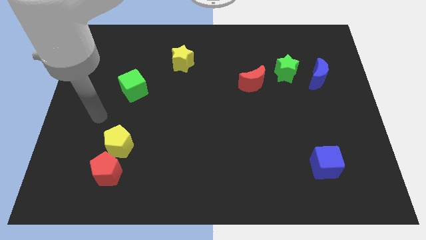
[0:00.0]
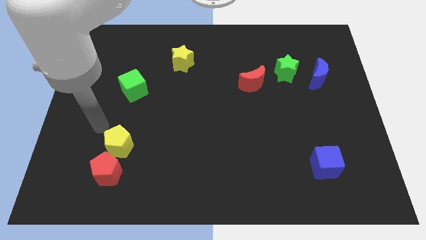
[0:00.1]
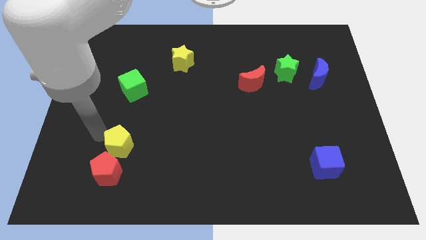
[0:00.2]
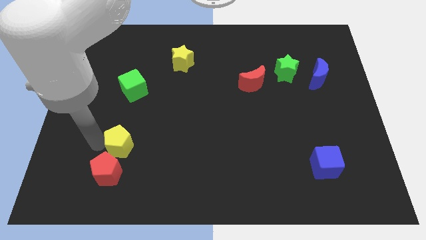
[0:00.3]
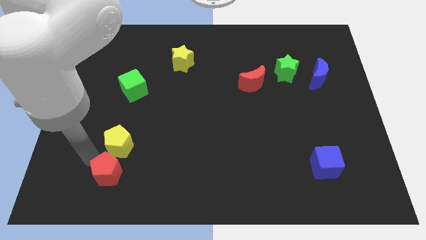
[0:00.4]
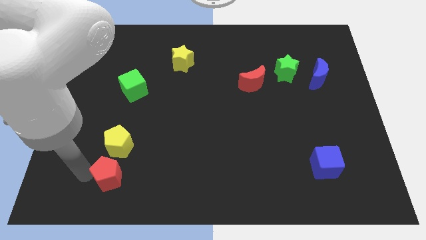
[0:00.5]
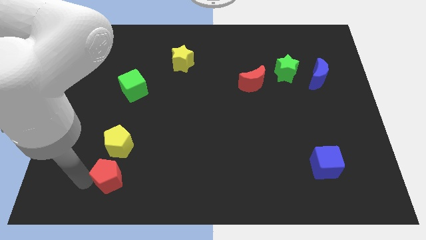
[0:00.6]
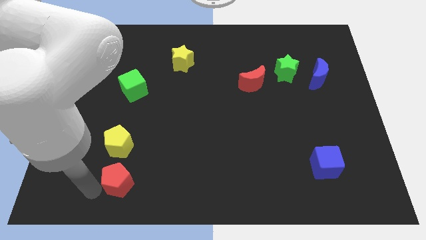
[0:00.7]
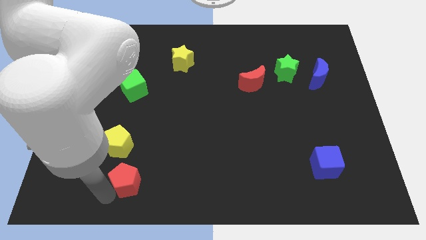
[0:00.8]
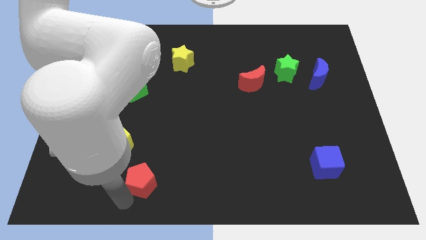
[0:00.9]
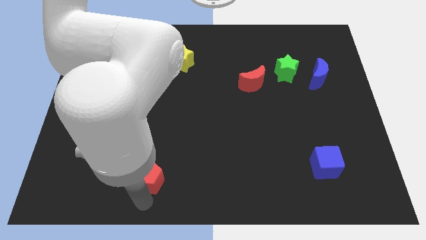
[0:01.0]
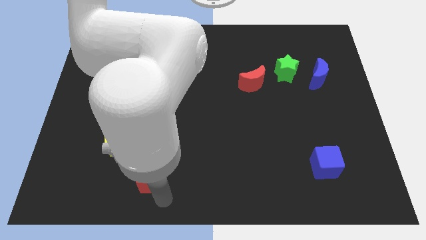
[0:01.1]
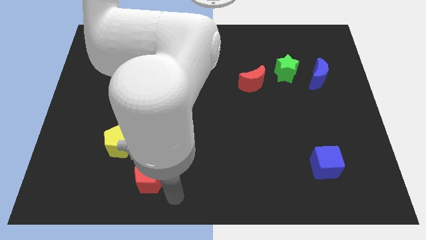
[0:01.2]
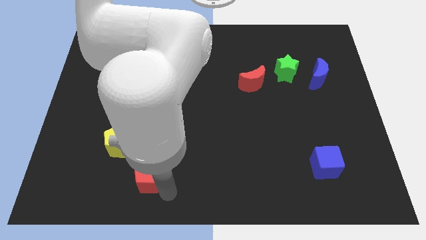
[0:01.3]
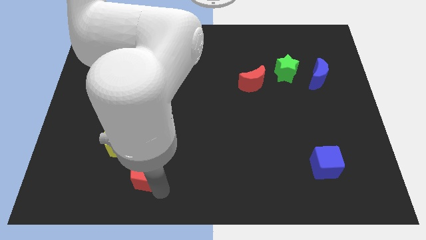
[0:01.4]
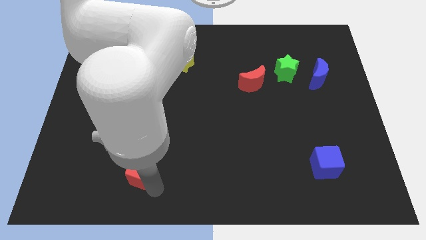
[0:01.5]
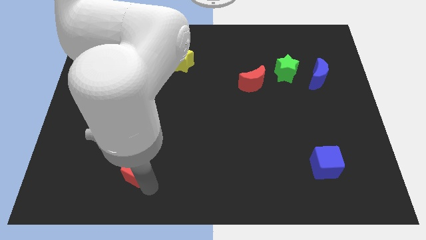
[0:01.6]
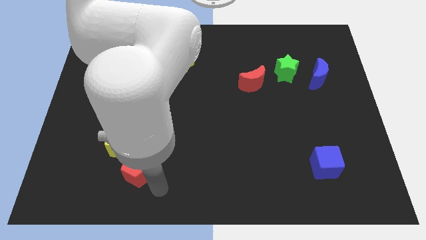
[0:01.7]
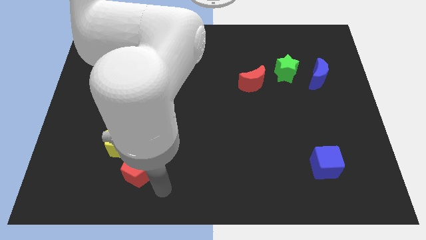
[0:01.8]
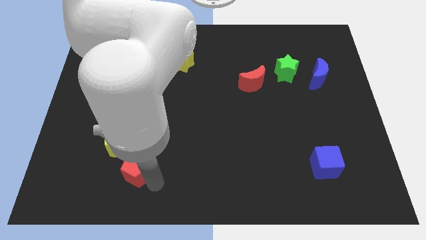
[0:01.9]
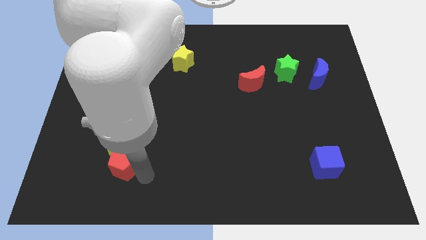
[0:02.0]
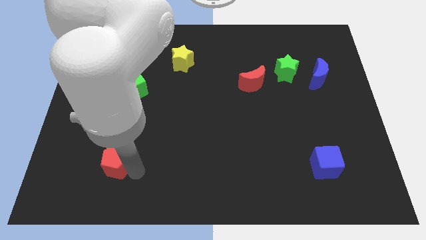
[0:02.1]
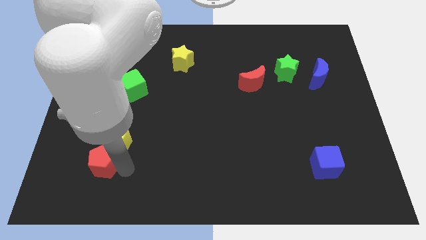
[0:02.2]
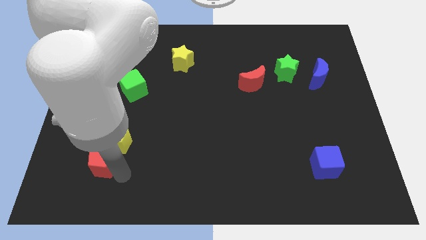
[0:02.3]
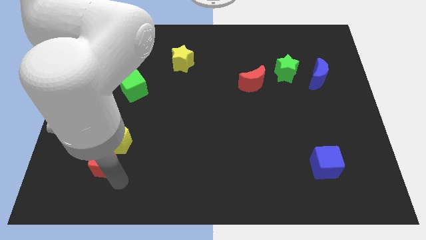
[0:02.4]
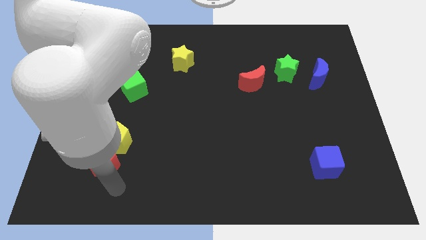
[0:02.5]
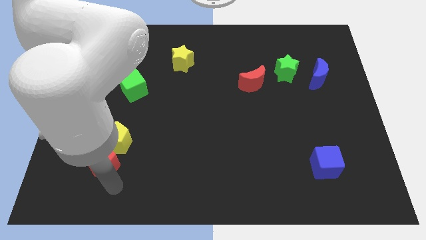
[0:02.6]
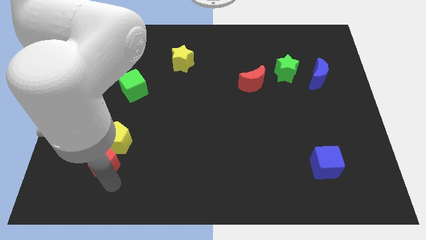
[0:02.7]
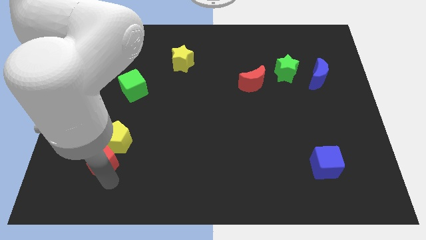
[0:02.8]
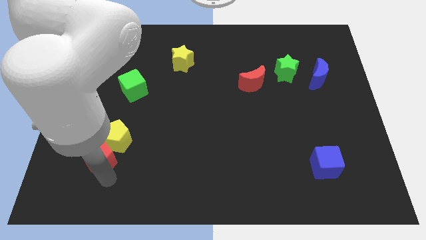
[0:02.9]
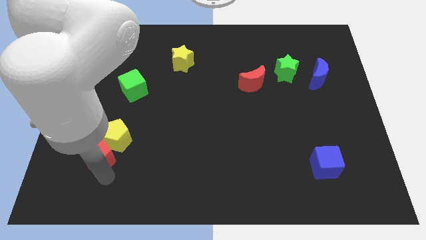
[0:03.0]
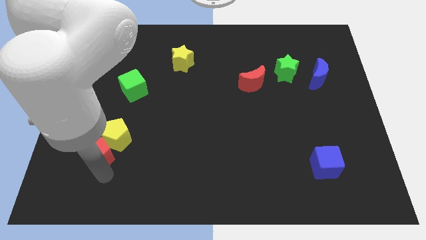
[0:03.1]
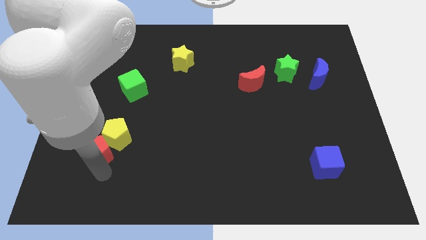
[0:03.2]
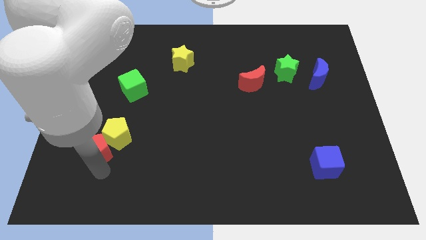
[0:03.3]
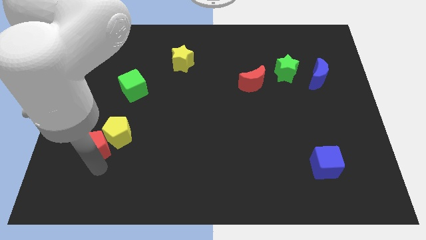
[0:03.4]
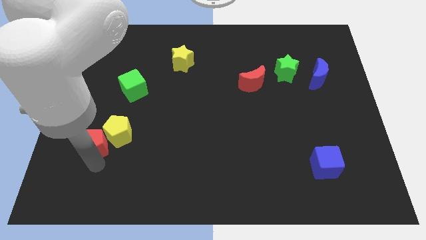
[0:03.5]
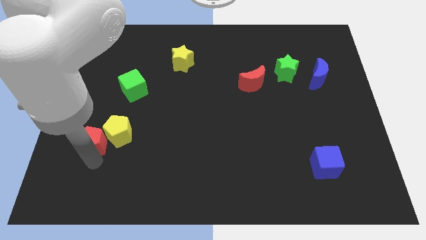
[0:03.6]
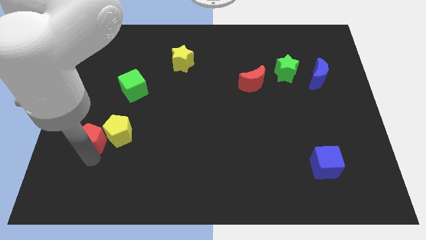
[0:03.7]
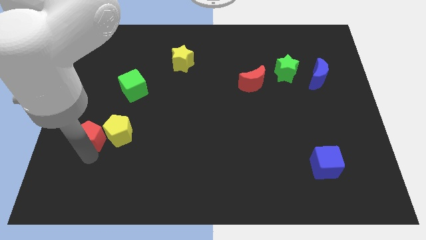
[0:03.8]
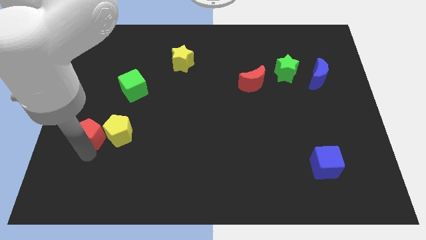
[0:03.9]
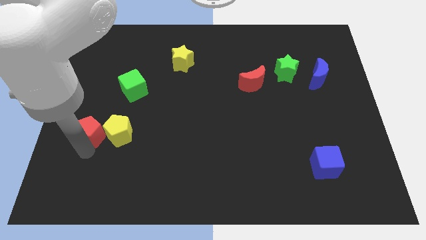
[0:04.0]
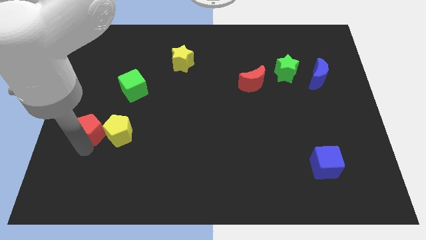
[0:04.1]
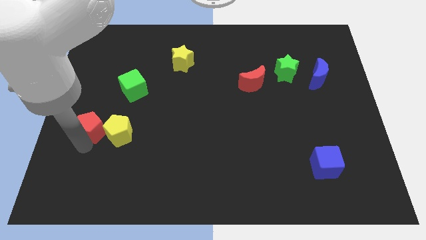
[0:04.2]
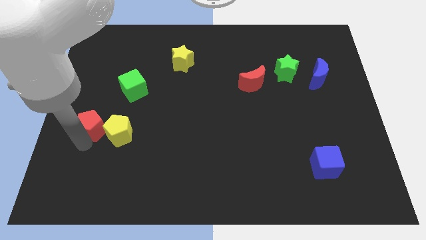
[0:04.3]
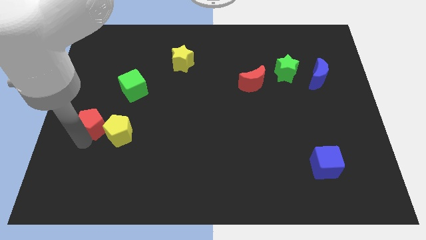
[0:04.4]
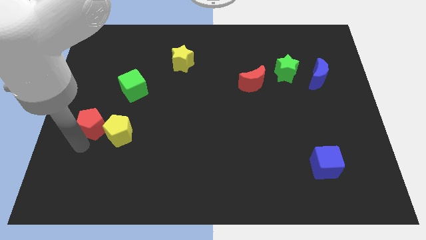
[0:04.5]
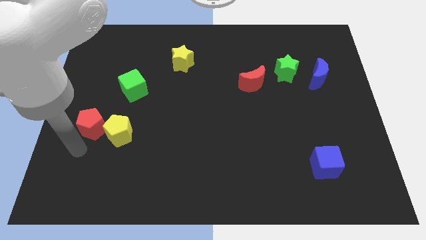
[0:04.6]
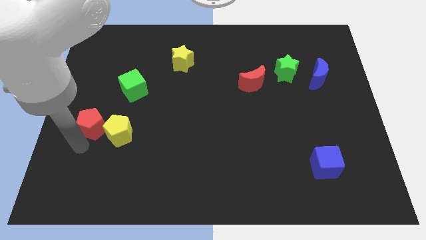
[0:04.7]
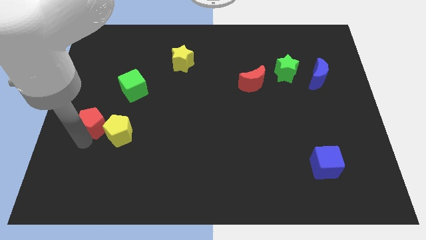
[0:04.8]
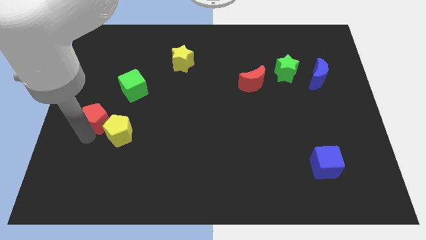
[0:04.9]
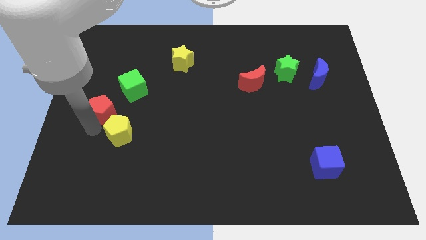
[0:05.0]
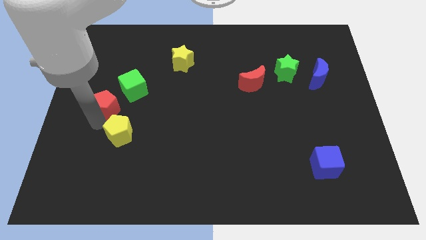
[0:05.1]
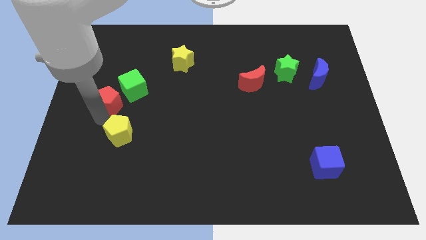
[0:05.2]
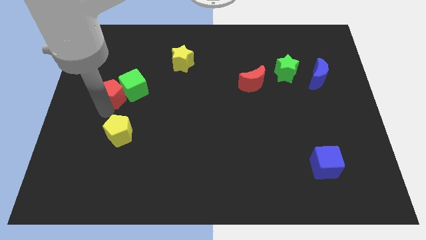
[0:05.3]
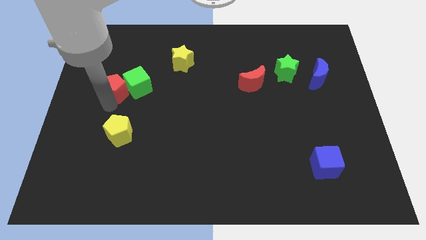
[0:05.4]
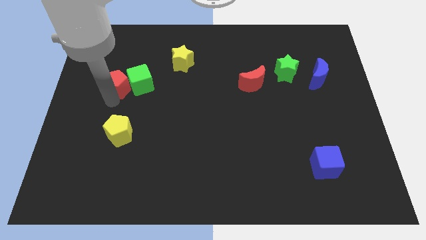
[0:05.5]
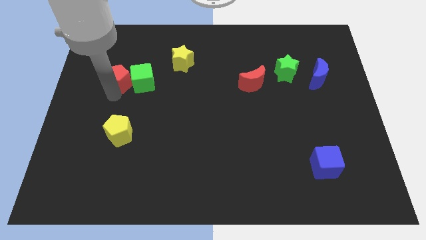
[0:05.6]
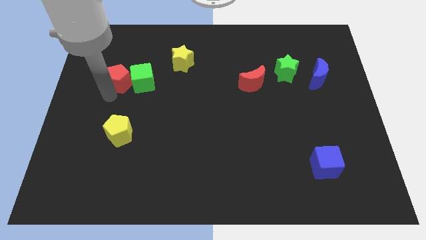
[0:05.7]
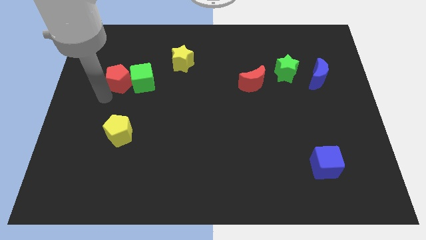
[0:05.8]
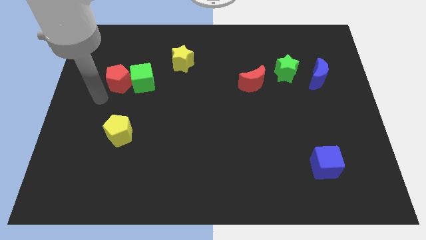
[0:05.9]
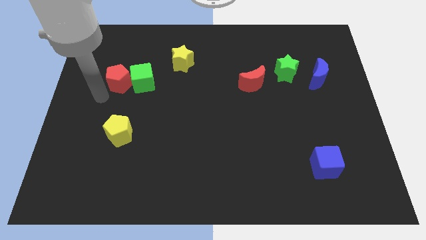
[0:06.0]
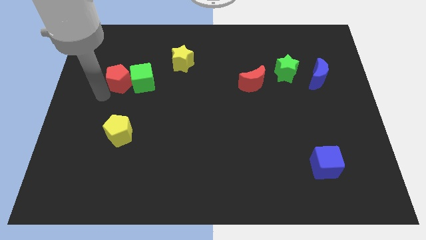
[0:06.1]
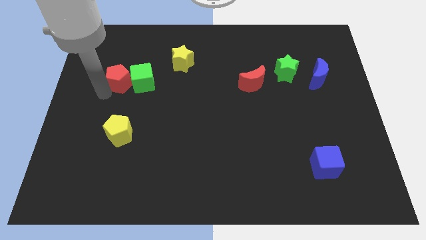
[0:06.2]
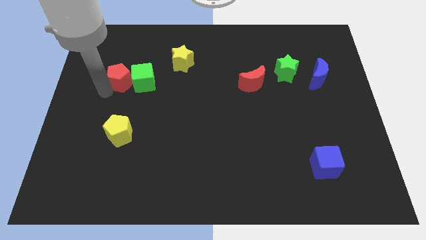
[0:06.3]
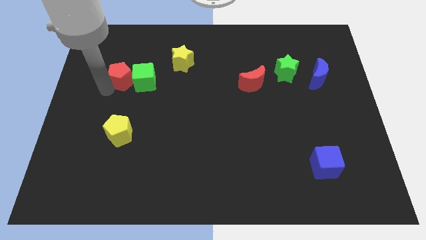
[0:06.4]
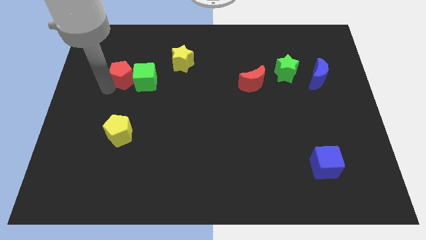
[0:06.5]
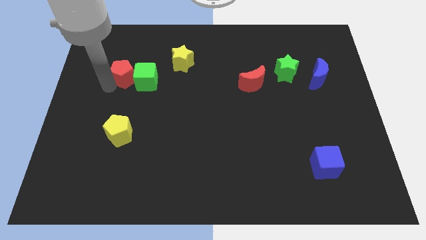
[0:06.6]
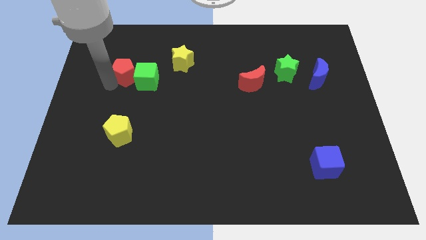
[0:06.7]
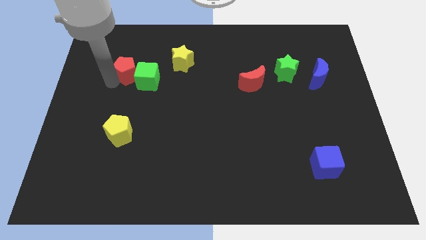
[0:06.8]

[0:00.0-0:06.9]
move the red pentagon to the left of the yellow star

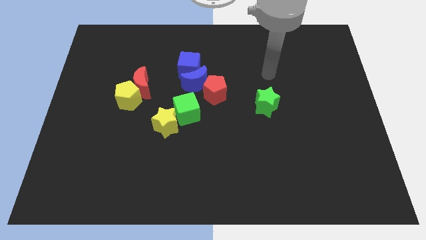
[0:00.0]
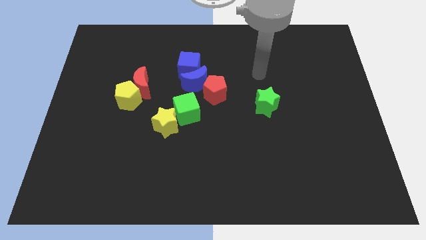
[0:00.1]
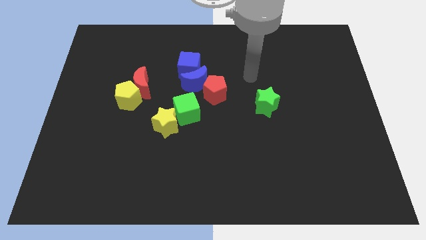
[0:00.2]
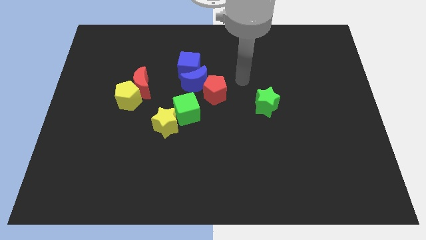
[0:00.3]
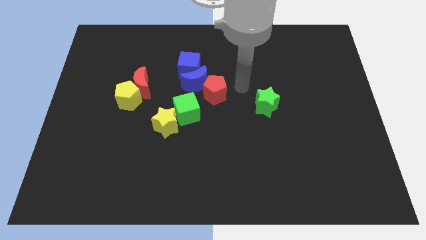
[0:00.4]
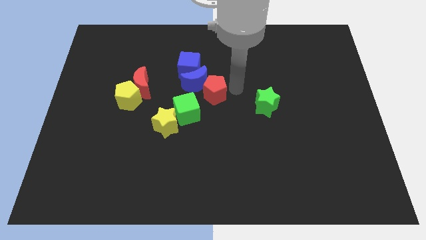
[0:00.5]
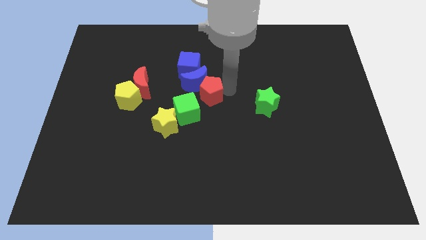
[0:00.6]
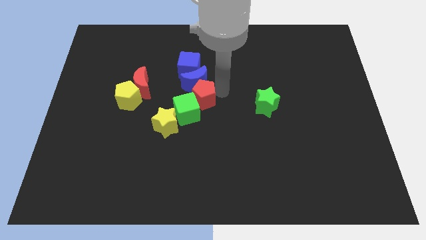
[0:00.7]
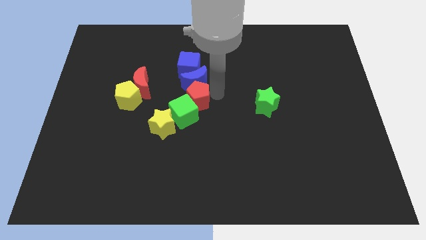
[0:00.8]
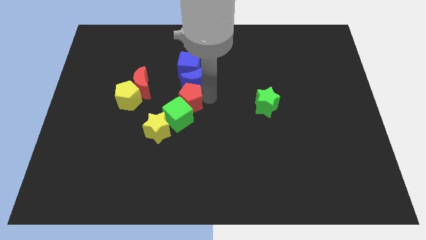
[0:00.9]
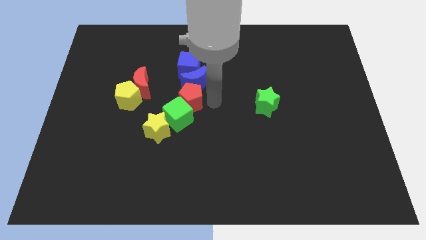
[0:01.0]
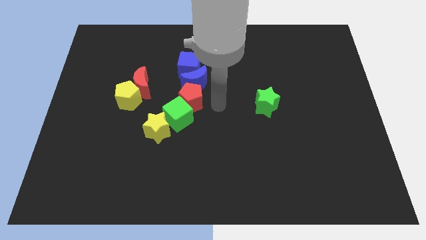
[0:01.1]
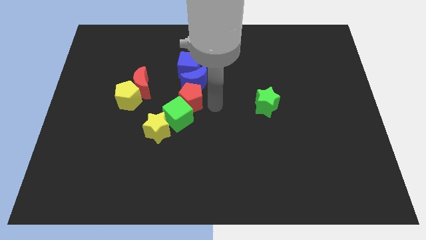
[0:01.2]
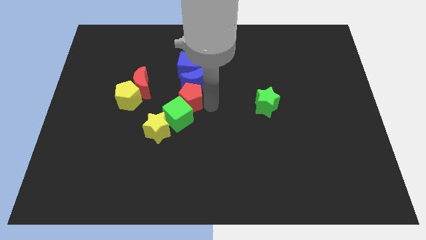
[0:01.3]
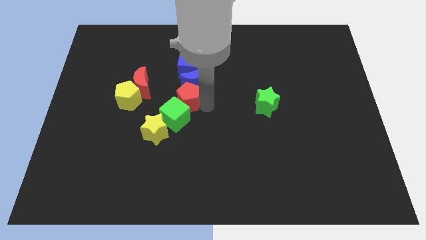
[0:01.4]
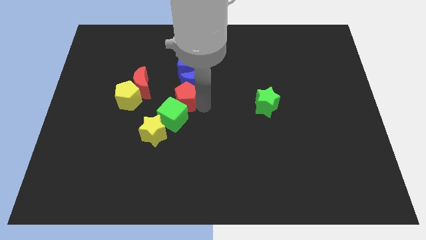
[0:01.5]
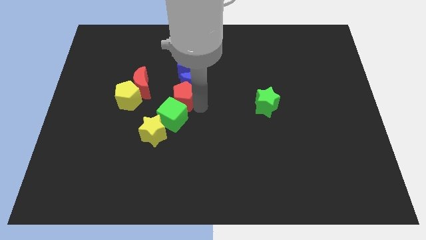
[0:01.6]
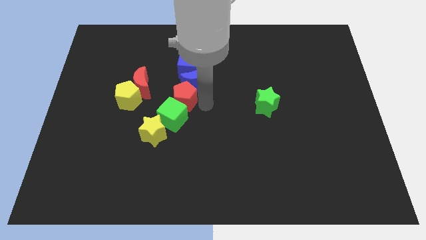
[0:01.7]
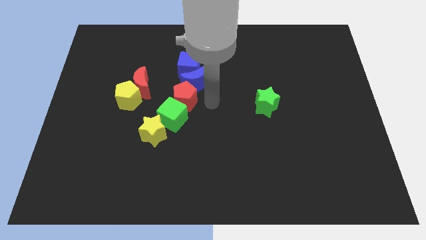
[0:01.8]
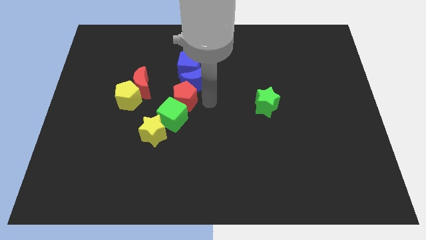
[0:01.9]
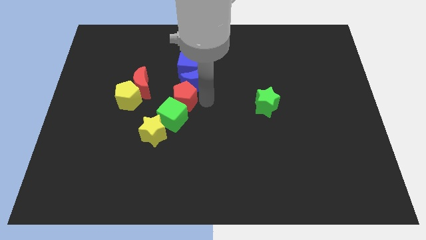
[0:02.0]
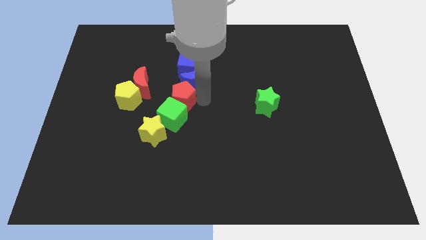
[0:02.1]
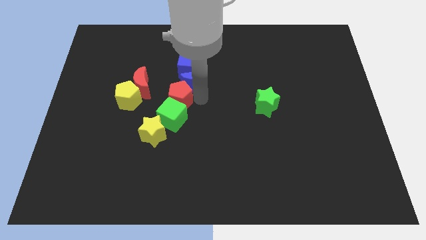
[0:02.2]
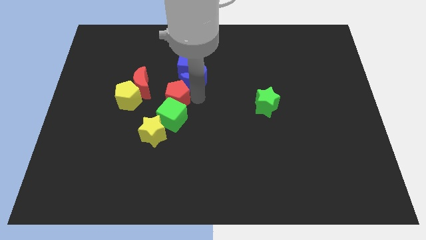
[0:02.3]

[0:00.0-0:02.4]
slide the red pentagon above the yellow star
